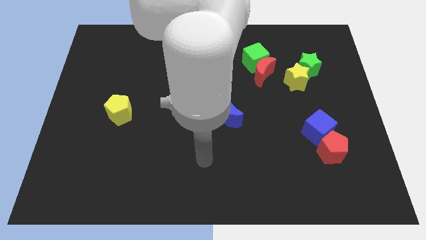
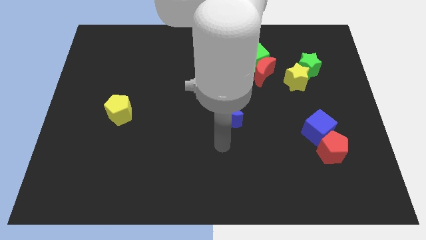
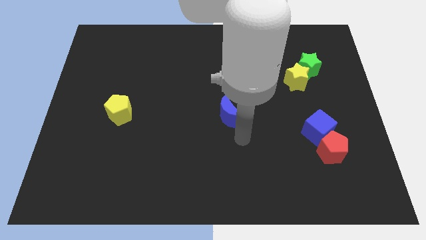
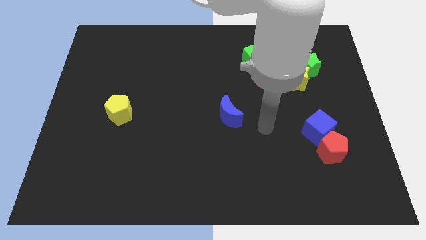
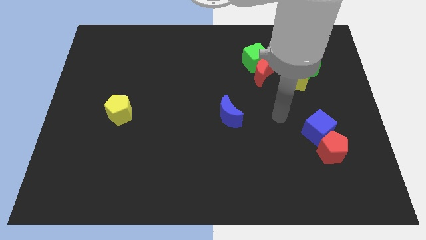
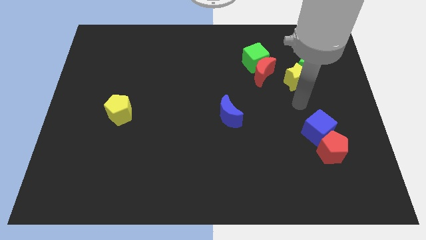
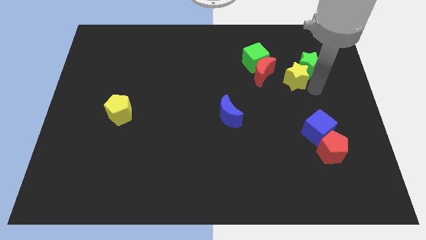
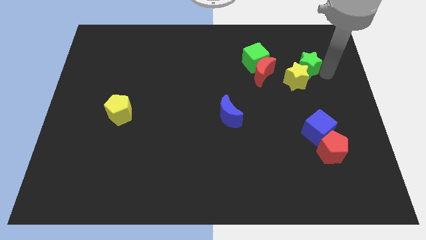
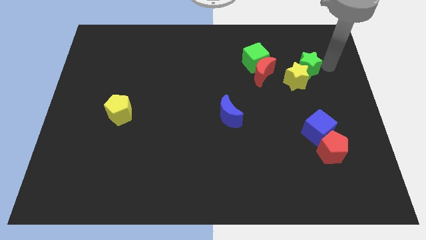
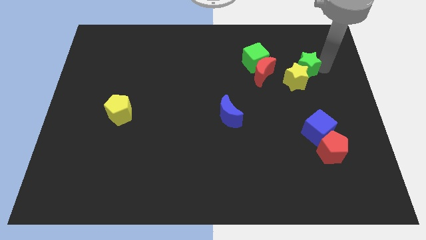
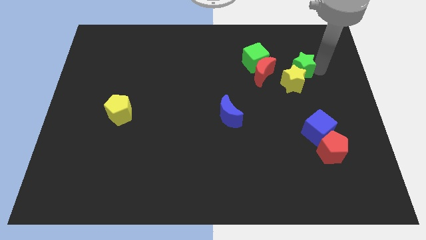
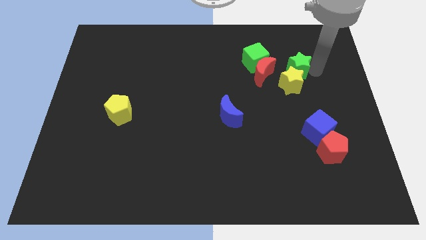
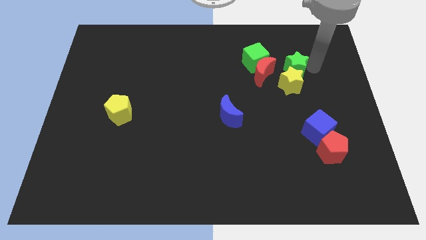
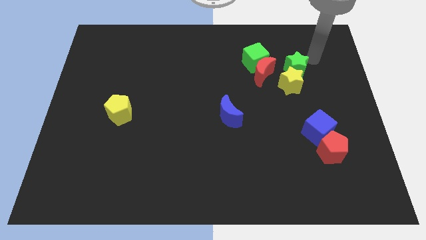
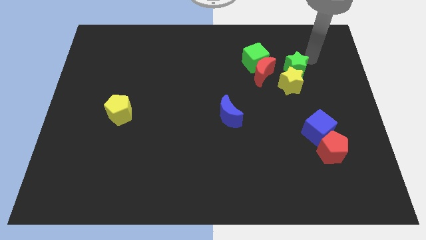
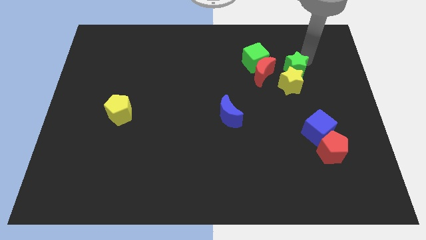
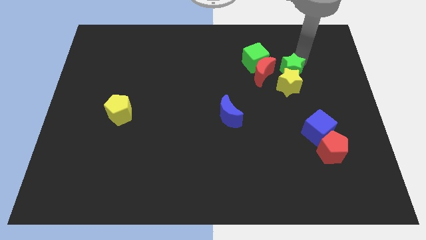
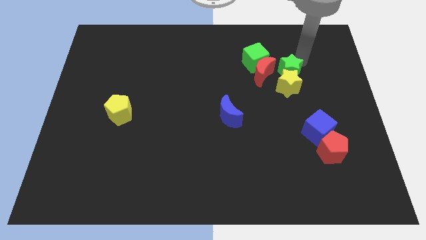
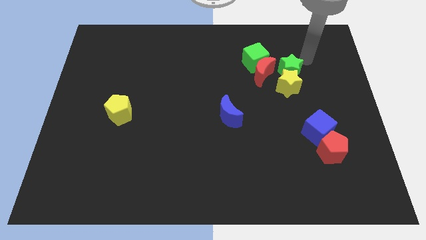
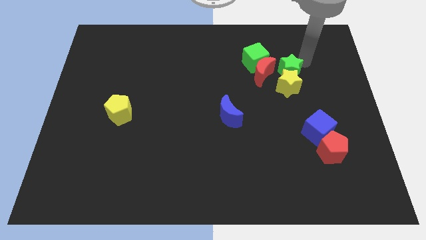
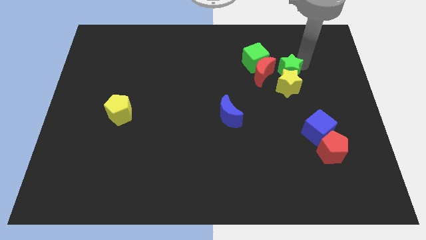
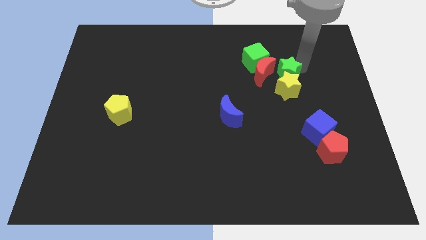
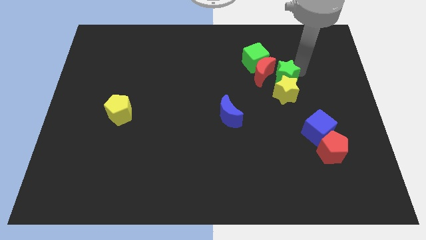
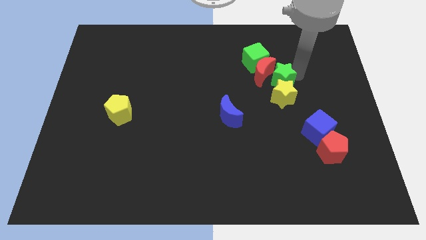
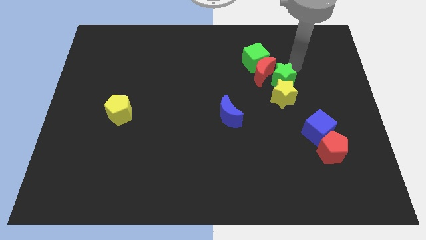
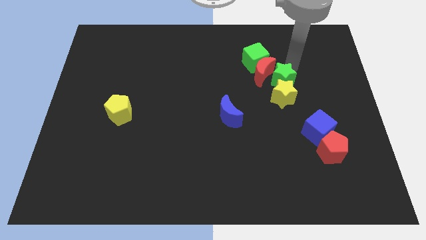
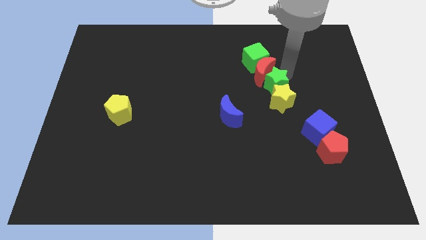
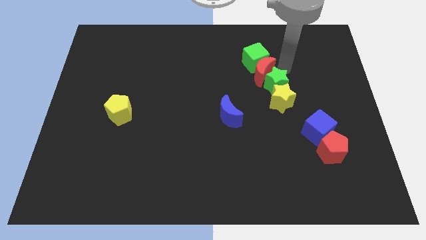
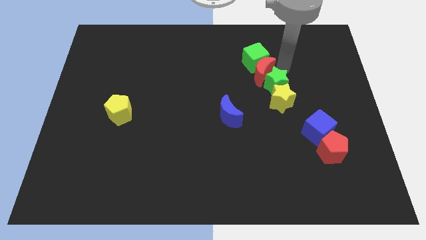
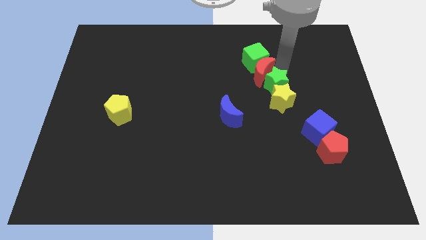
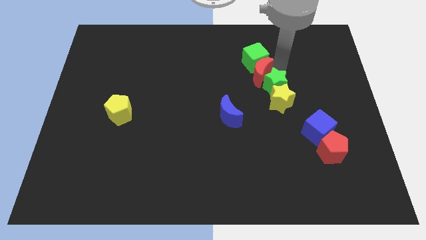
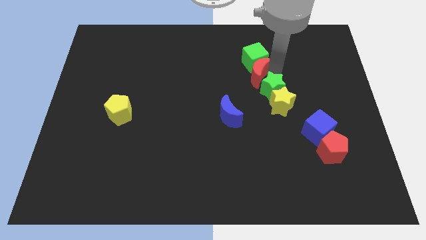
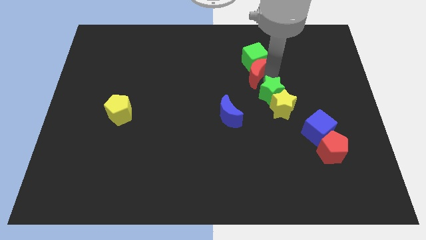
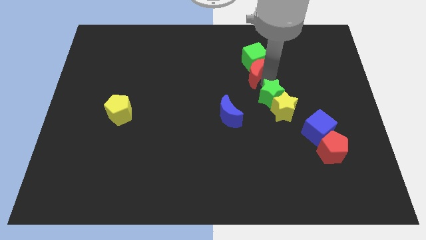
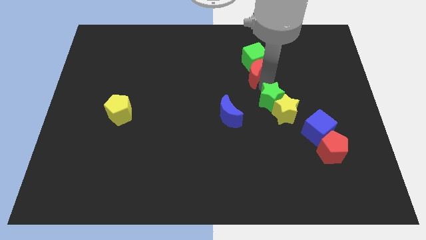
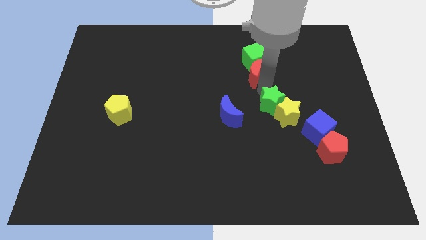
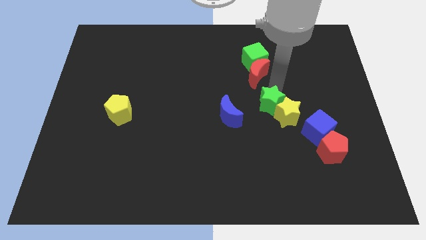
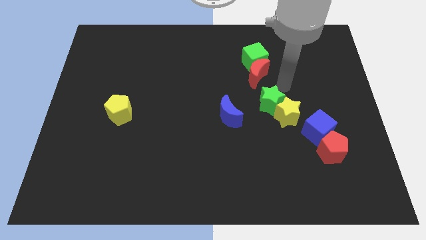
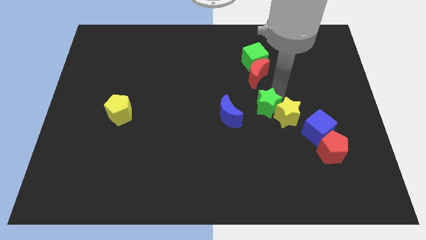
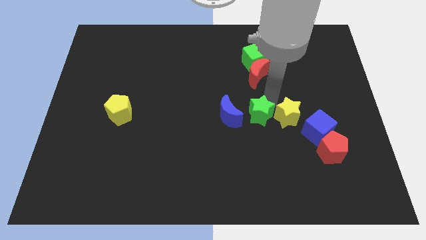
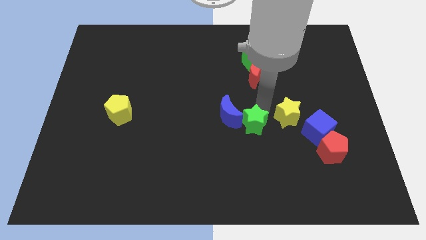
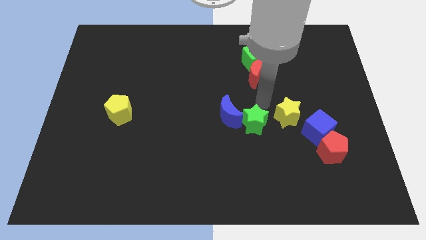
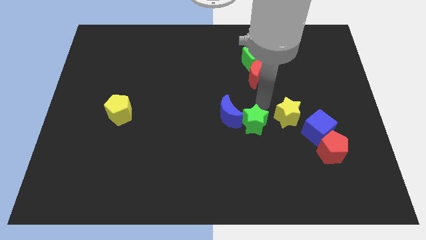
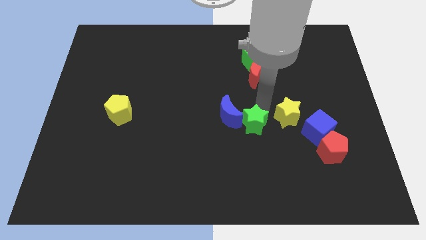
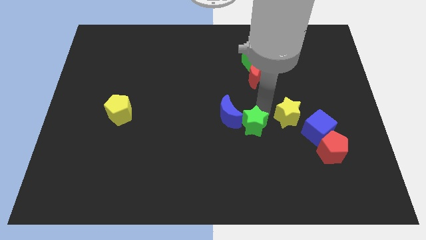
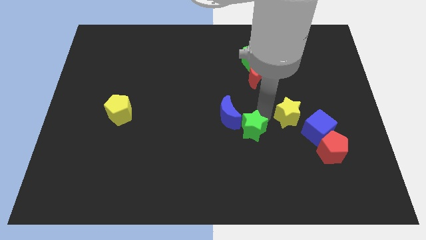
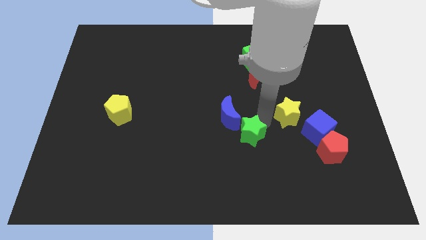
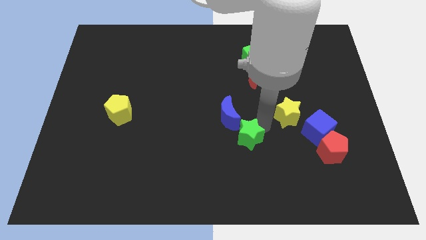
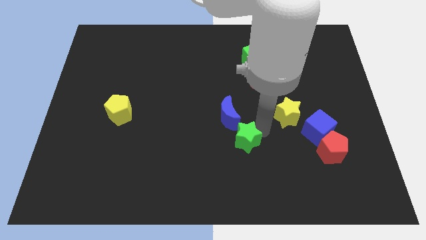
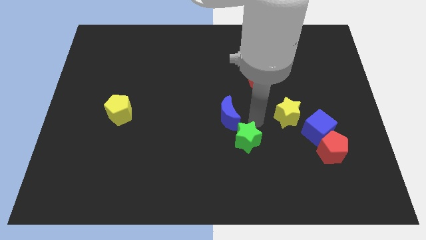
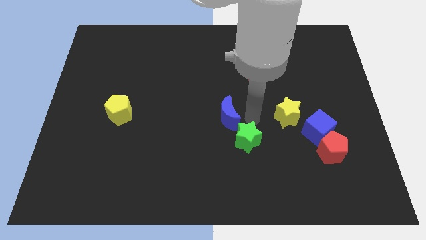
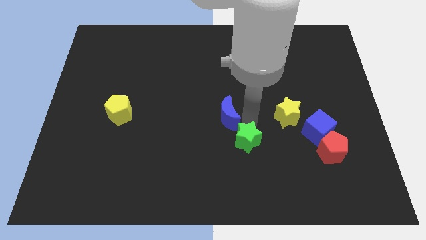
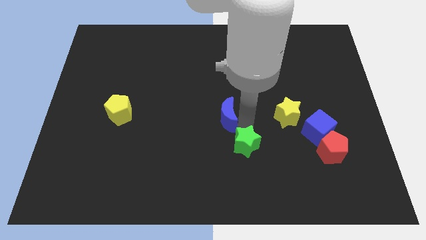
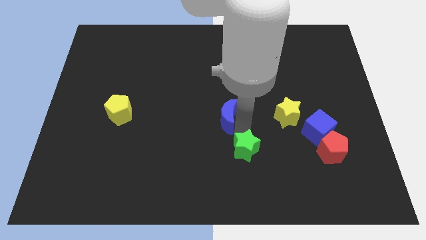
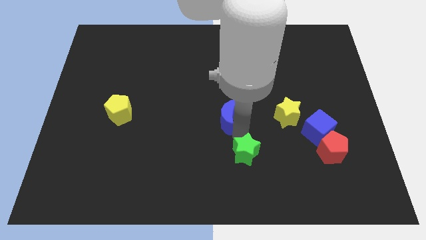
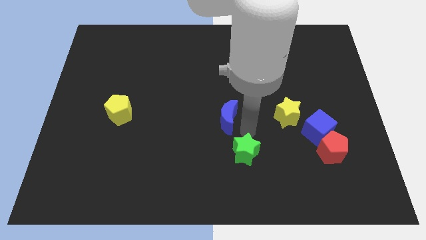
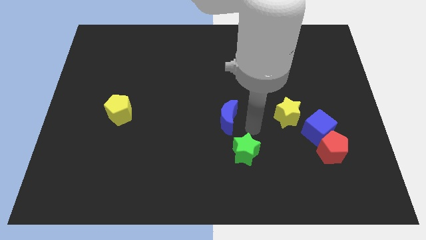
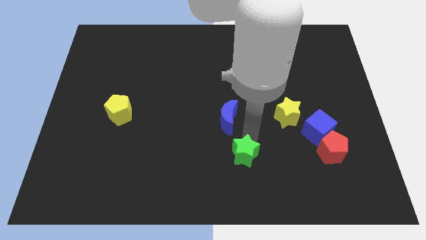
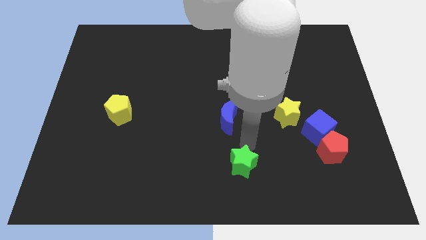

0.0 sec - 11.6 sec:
put the green star to the bottom

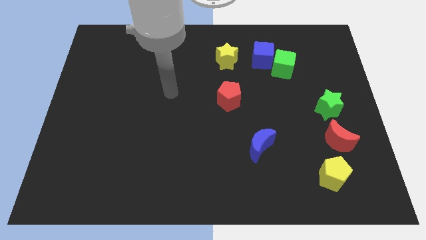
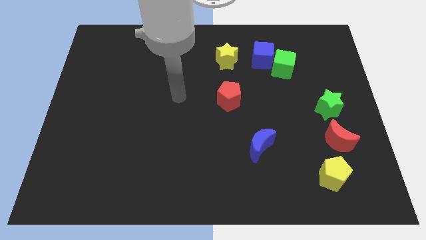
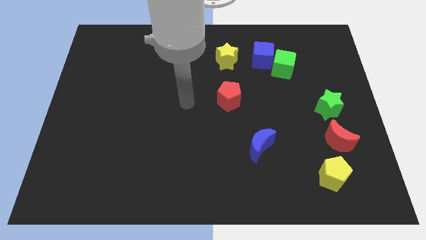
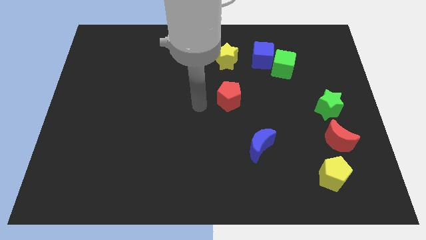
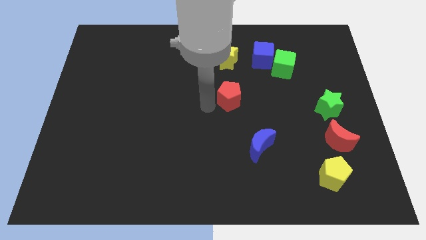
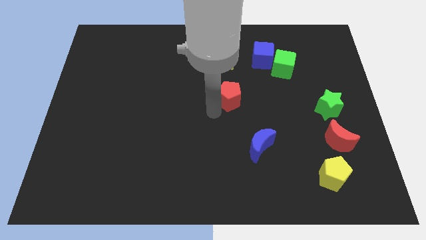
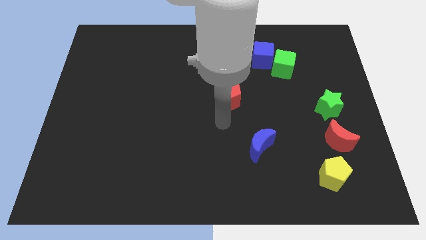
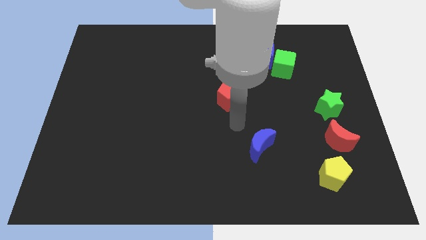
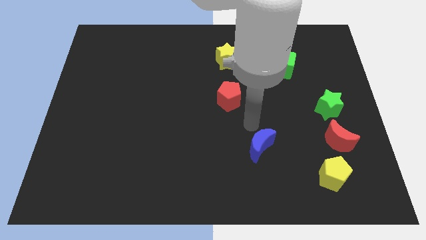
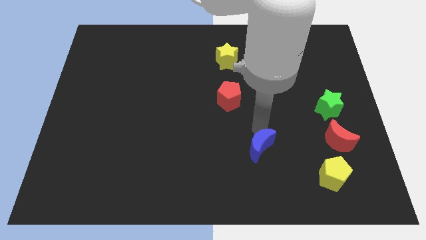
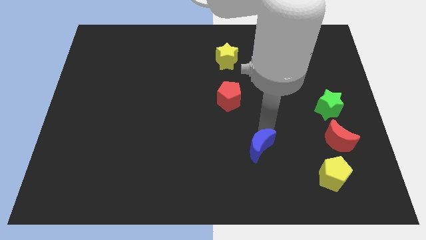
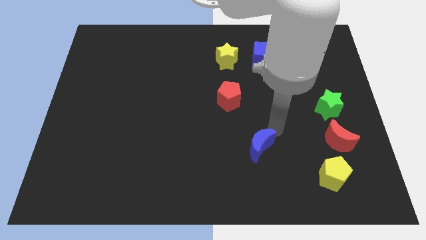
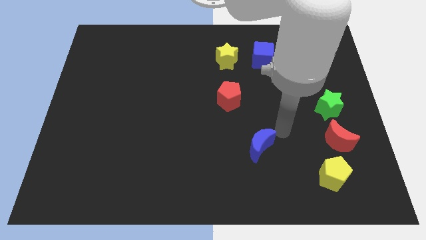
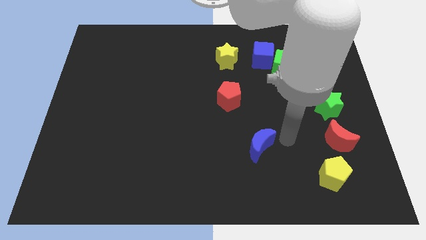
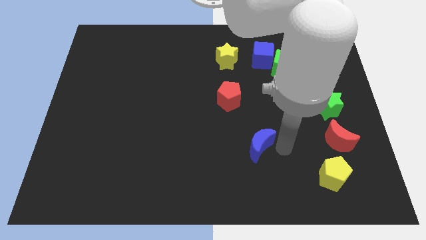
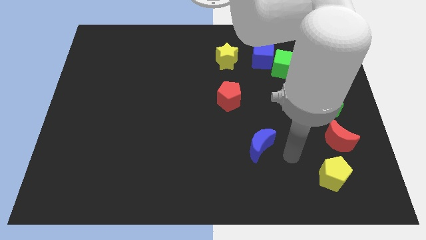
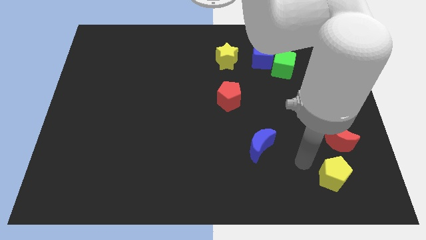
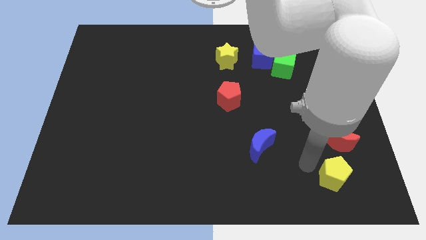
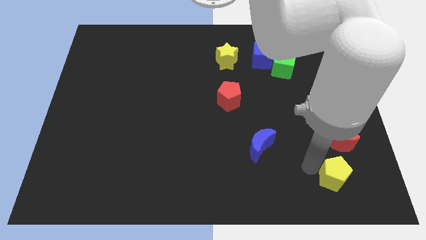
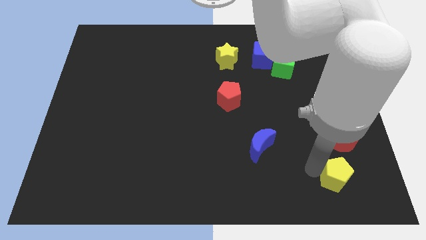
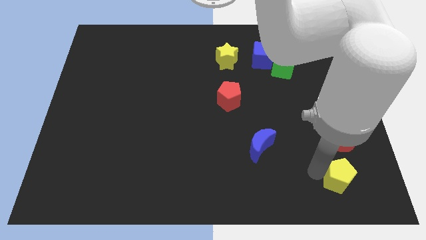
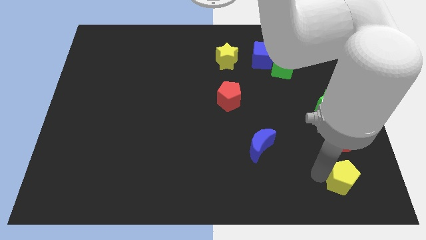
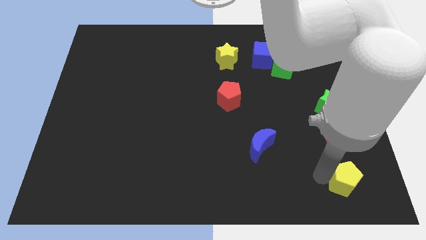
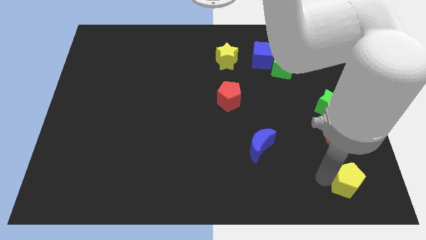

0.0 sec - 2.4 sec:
put the yellow pentagon to the bottom right of the board
